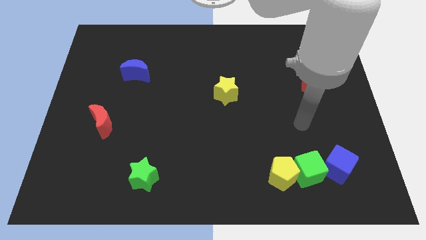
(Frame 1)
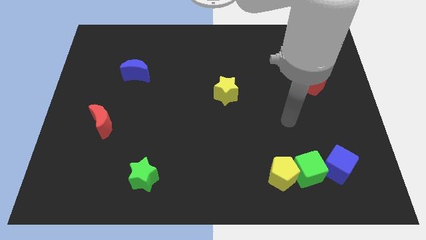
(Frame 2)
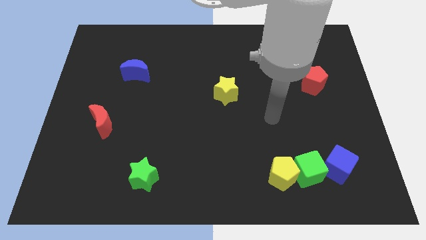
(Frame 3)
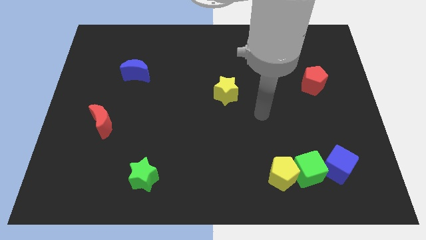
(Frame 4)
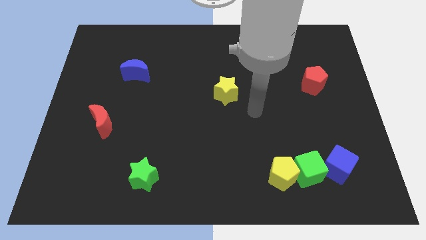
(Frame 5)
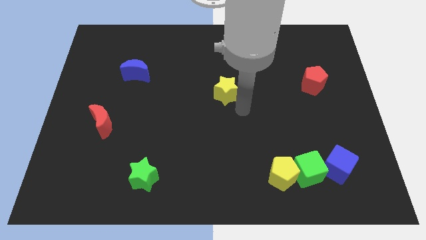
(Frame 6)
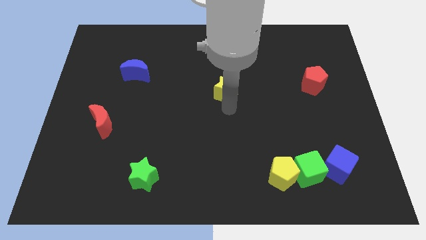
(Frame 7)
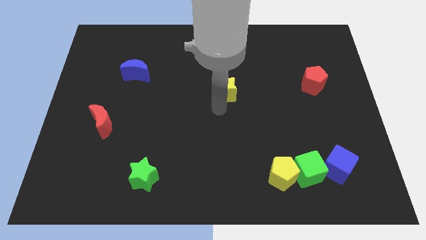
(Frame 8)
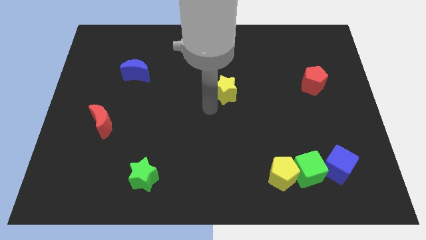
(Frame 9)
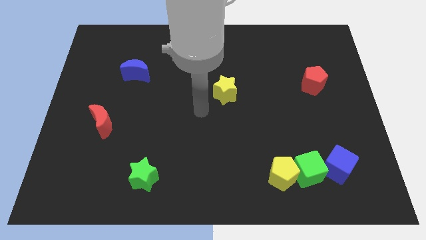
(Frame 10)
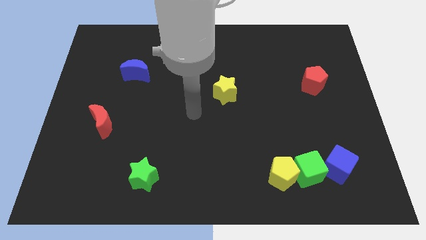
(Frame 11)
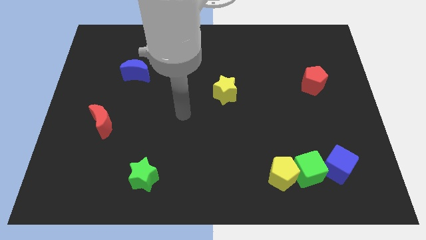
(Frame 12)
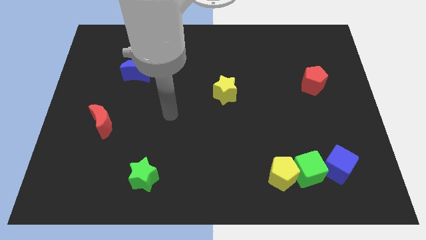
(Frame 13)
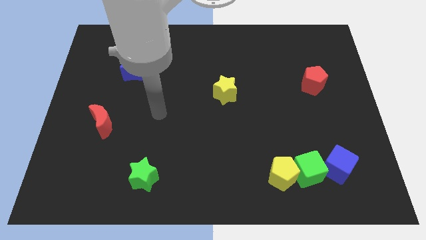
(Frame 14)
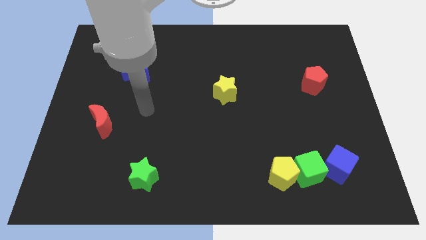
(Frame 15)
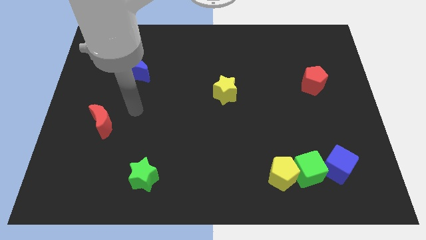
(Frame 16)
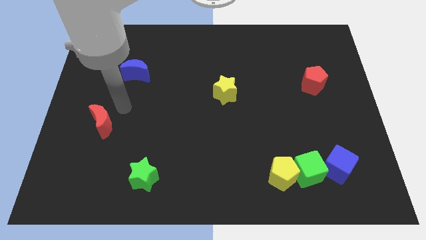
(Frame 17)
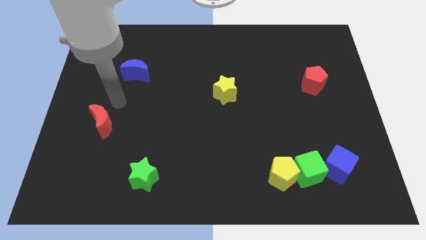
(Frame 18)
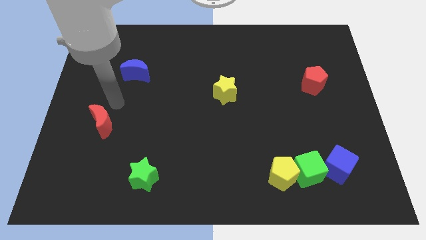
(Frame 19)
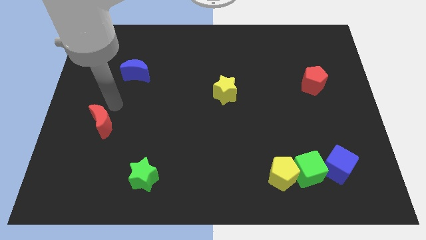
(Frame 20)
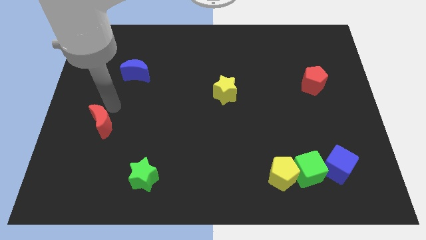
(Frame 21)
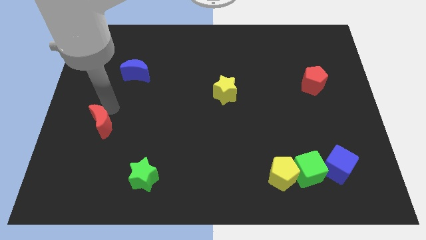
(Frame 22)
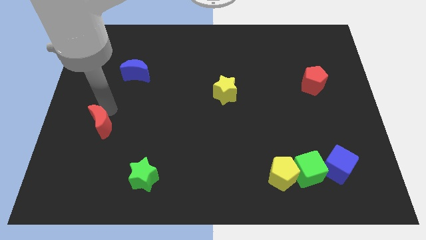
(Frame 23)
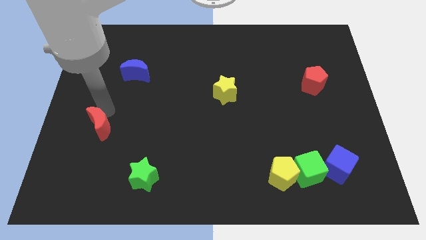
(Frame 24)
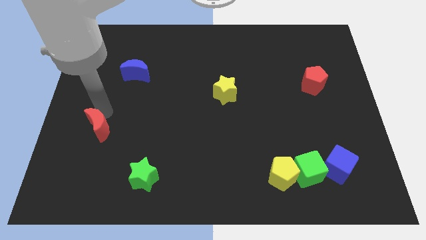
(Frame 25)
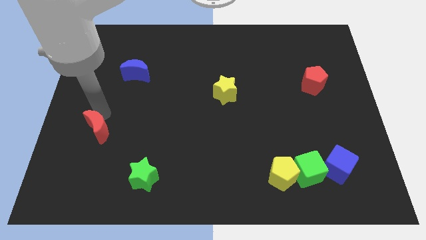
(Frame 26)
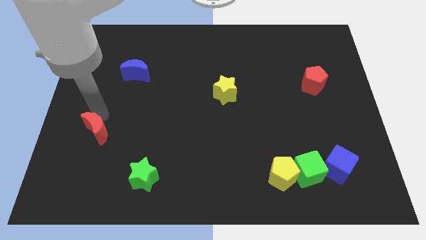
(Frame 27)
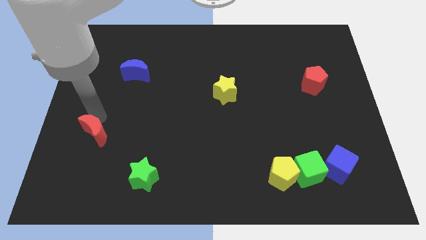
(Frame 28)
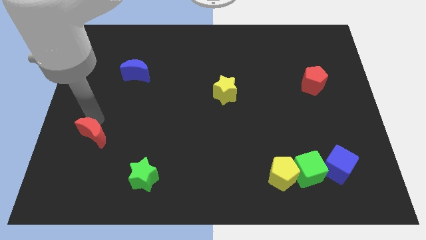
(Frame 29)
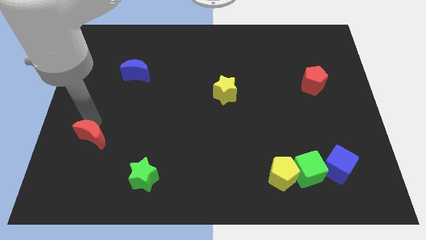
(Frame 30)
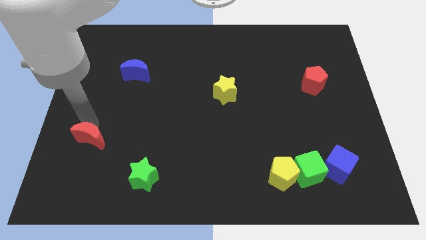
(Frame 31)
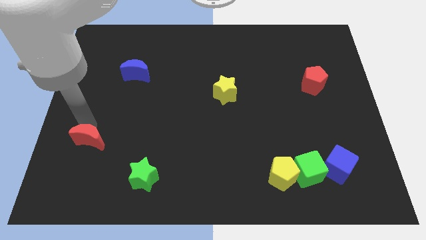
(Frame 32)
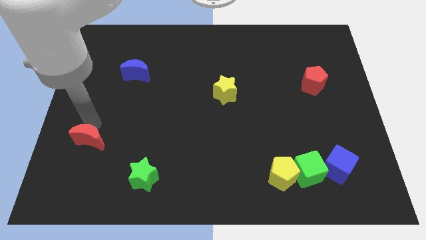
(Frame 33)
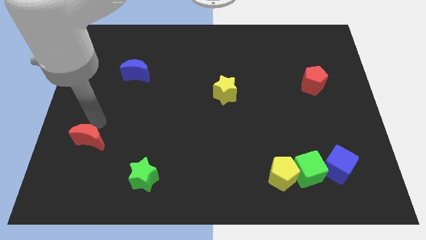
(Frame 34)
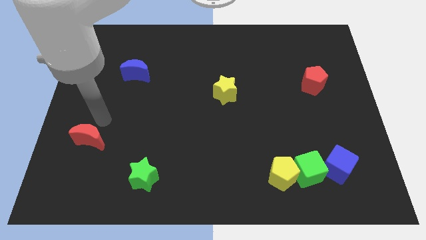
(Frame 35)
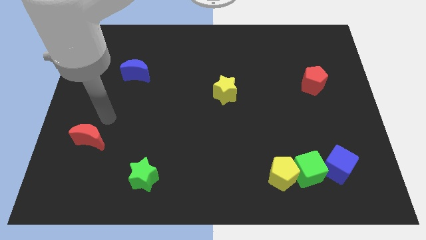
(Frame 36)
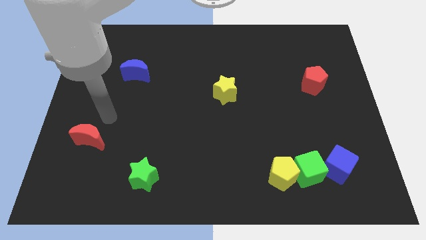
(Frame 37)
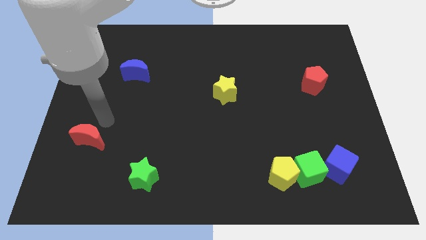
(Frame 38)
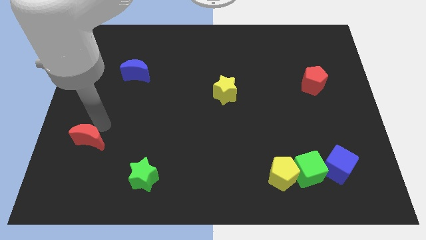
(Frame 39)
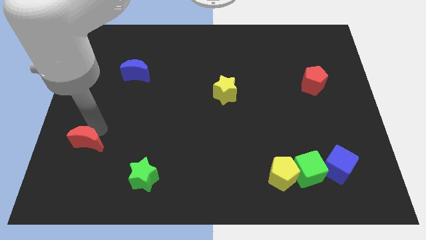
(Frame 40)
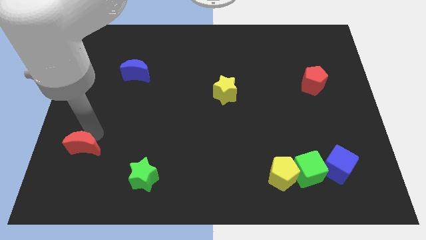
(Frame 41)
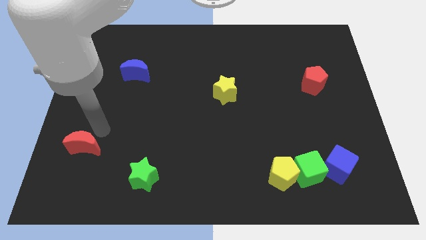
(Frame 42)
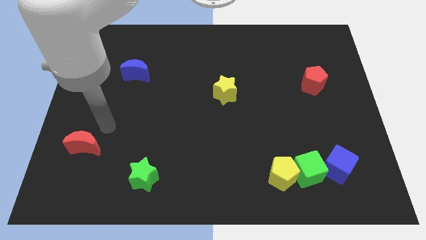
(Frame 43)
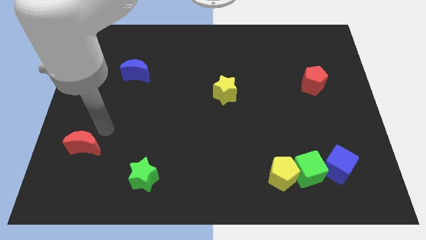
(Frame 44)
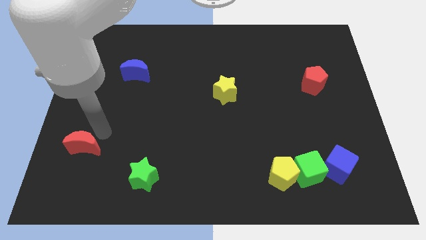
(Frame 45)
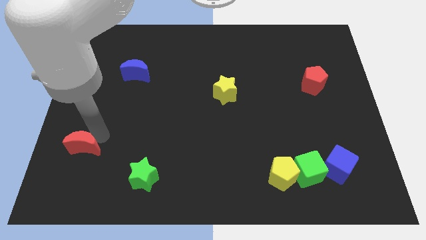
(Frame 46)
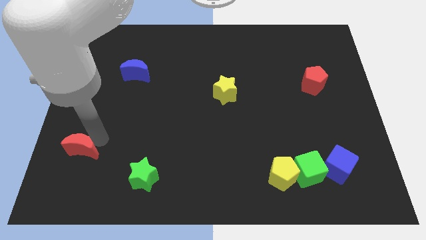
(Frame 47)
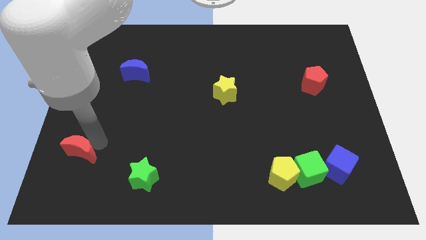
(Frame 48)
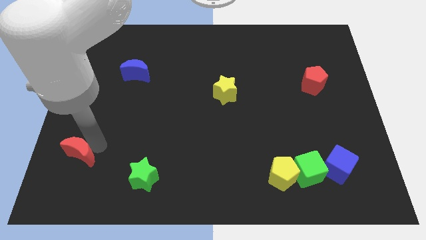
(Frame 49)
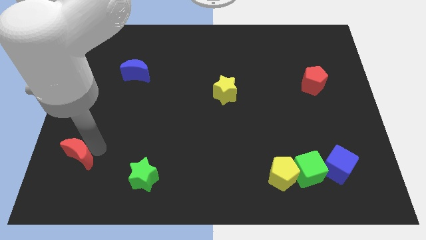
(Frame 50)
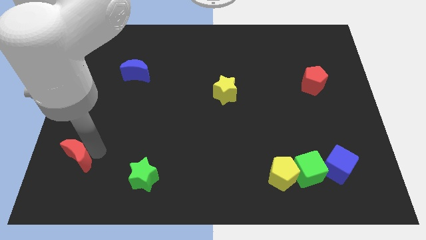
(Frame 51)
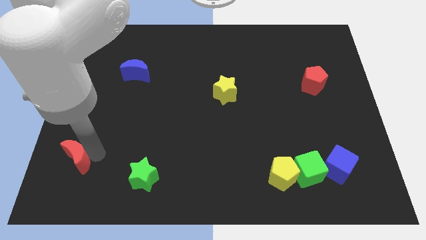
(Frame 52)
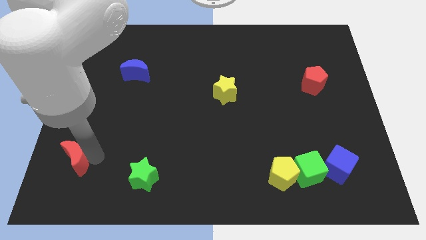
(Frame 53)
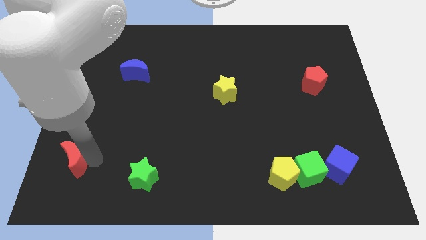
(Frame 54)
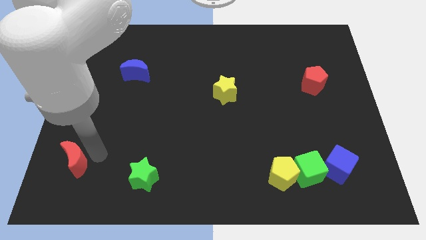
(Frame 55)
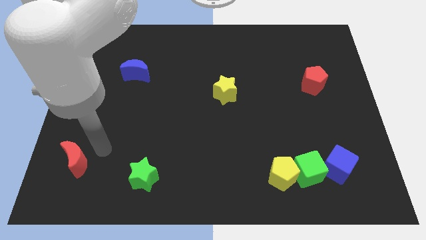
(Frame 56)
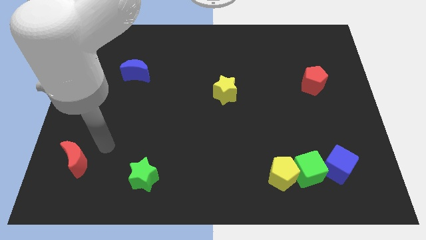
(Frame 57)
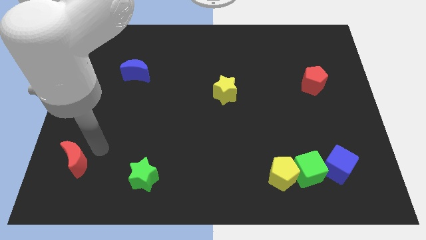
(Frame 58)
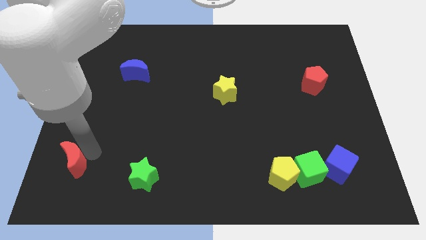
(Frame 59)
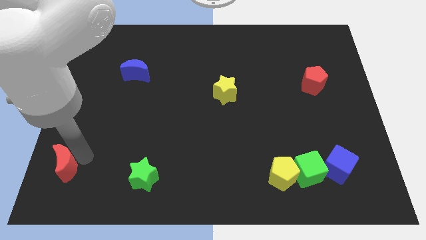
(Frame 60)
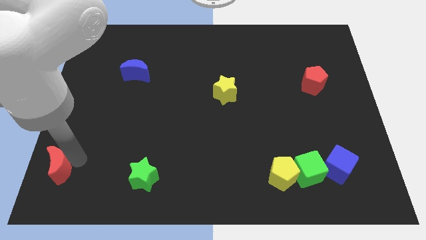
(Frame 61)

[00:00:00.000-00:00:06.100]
put the red moon to the bottom left of the board

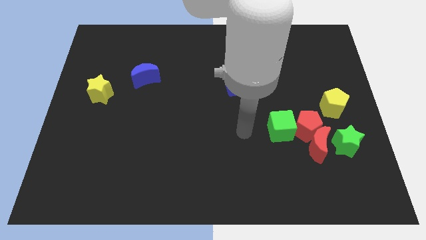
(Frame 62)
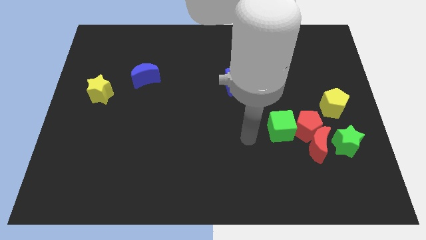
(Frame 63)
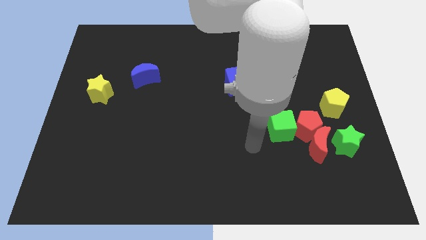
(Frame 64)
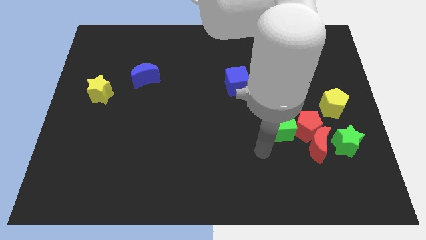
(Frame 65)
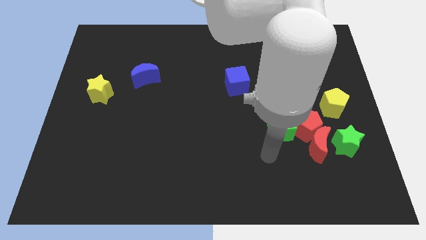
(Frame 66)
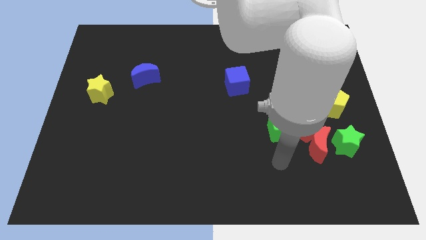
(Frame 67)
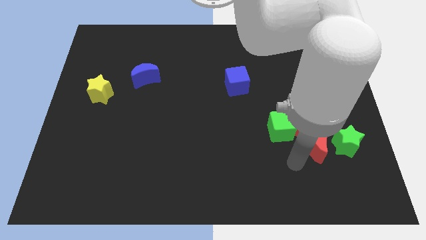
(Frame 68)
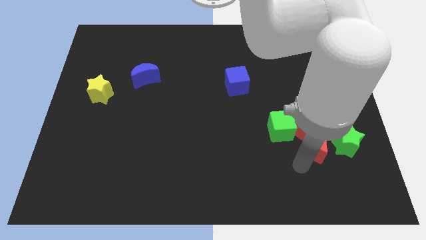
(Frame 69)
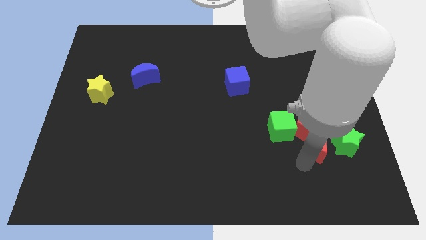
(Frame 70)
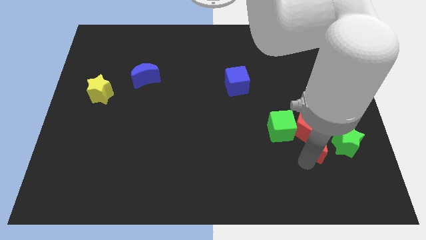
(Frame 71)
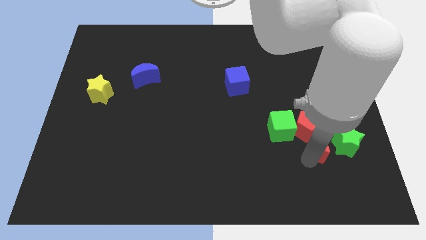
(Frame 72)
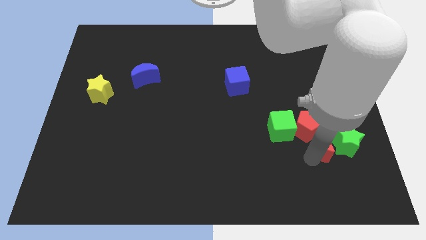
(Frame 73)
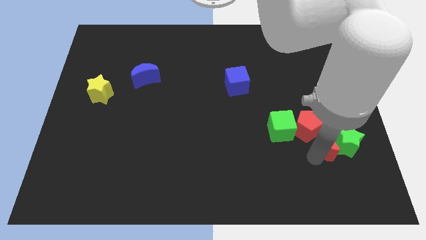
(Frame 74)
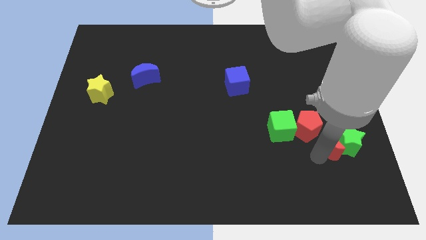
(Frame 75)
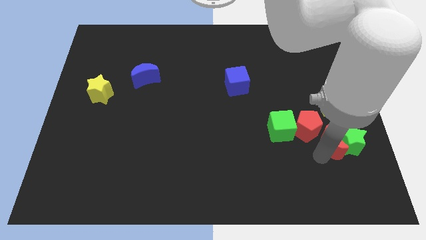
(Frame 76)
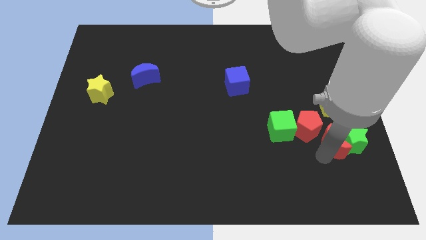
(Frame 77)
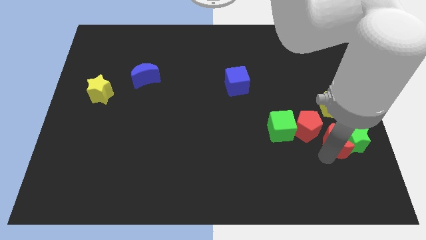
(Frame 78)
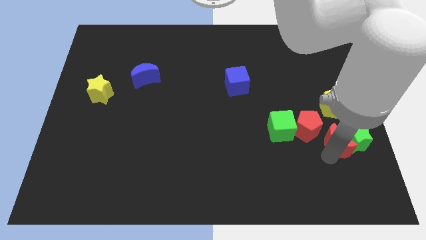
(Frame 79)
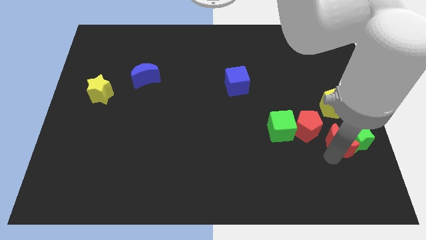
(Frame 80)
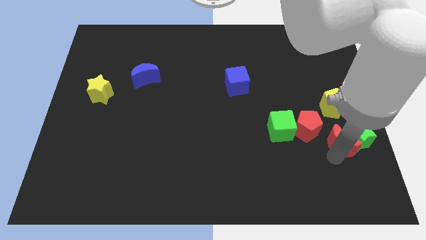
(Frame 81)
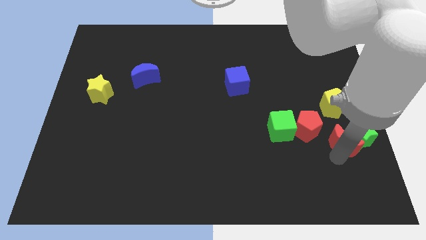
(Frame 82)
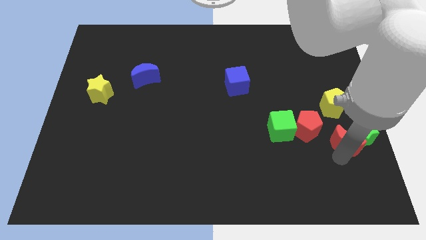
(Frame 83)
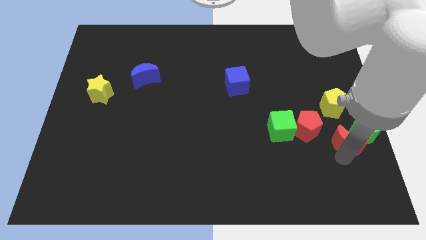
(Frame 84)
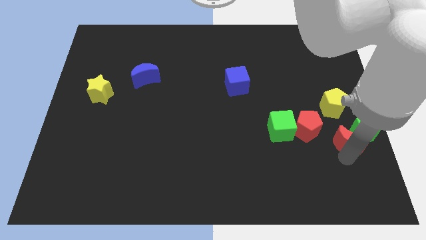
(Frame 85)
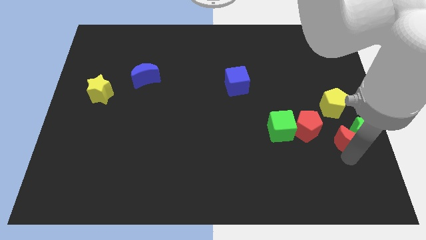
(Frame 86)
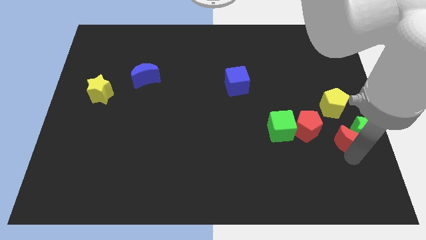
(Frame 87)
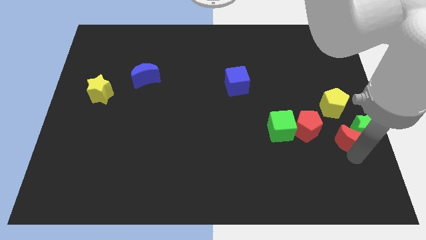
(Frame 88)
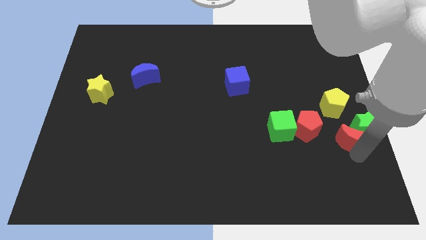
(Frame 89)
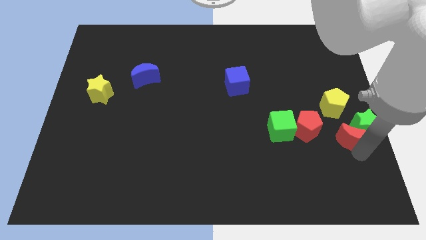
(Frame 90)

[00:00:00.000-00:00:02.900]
put the red moon to the right side
